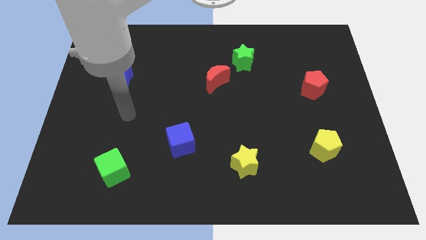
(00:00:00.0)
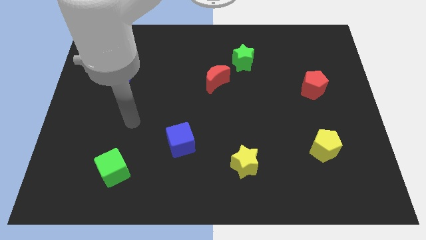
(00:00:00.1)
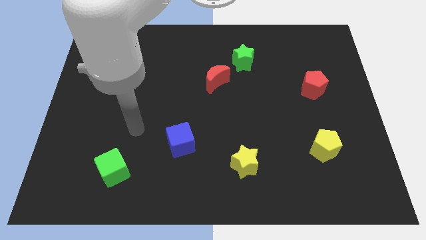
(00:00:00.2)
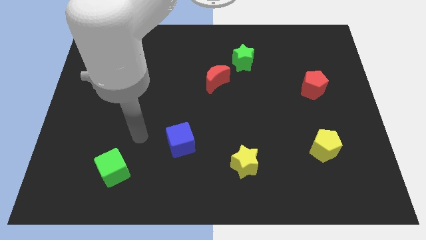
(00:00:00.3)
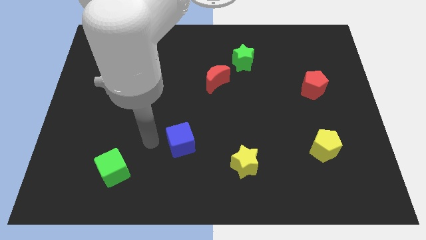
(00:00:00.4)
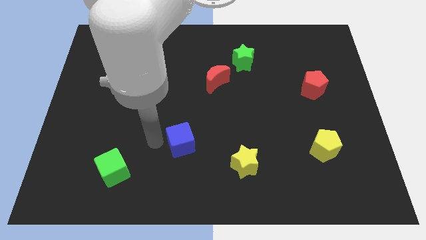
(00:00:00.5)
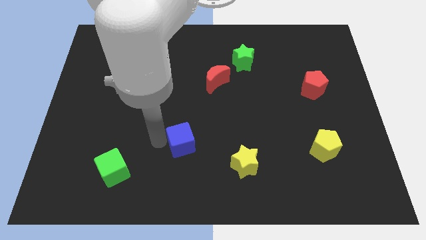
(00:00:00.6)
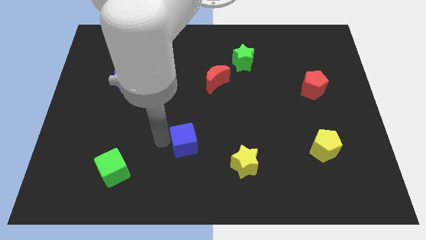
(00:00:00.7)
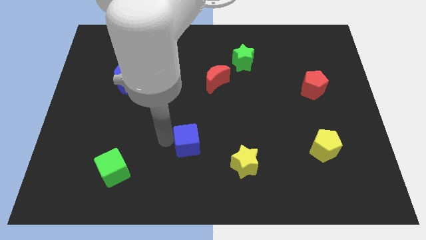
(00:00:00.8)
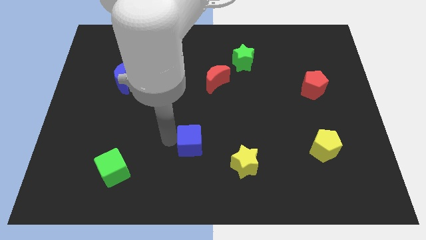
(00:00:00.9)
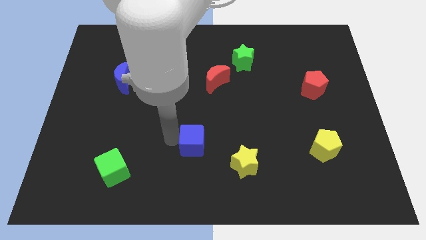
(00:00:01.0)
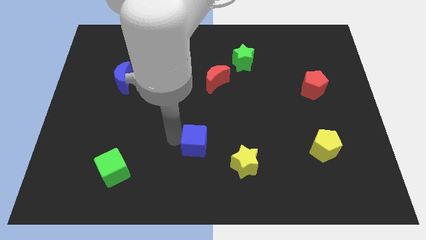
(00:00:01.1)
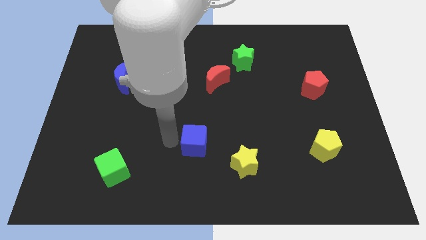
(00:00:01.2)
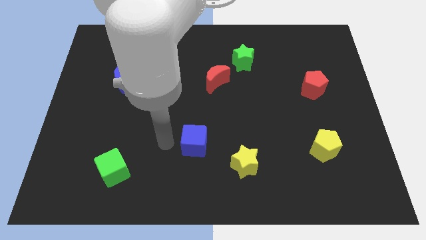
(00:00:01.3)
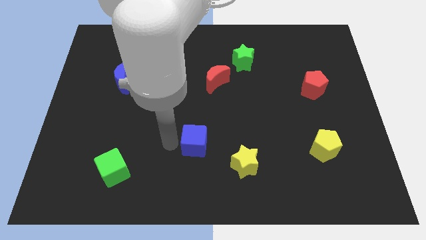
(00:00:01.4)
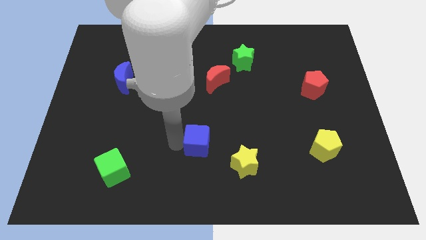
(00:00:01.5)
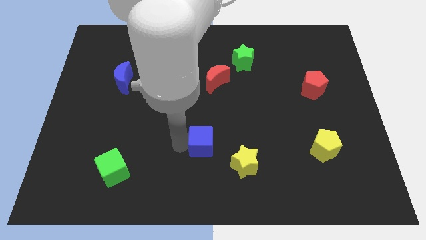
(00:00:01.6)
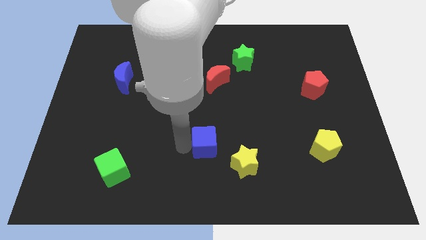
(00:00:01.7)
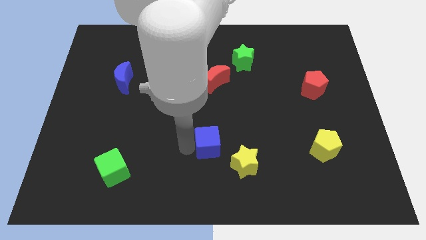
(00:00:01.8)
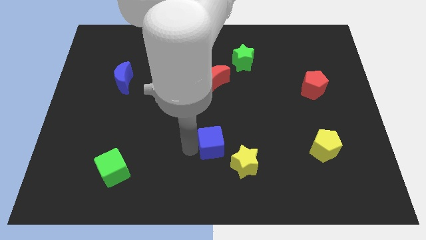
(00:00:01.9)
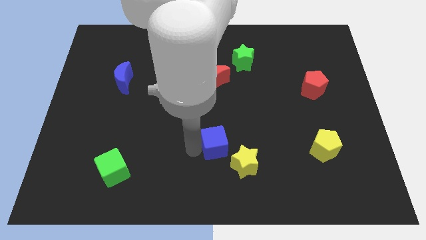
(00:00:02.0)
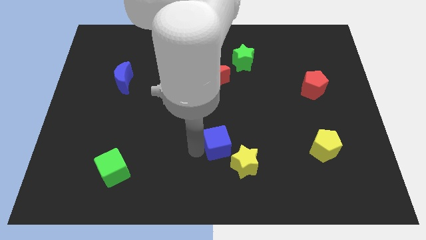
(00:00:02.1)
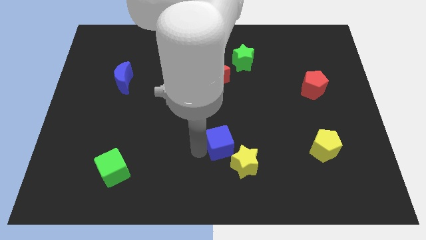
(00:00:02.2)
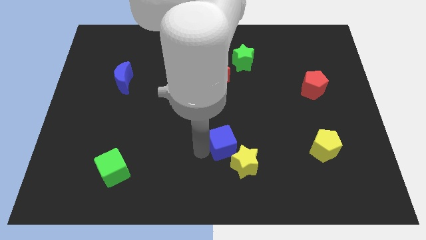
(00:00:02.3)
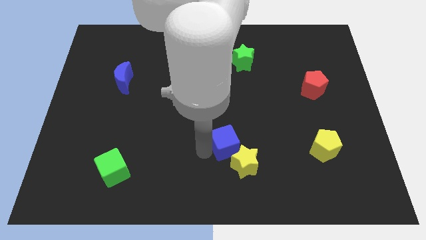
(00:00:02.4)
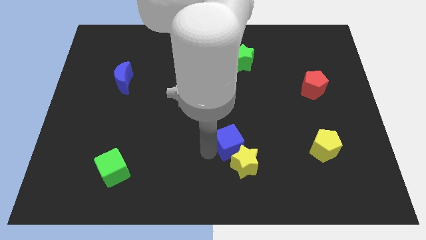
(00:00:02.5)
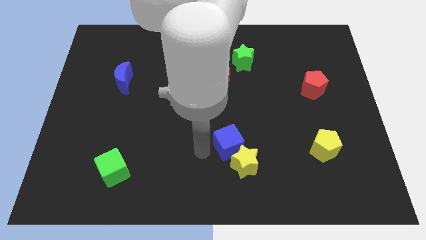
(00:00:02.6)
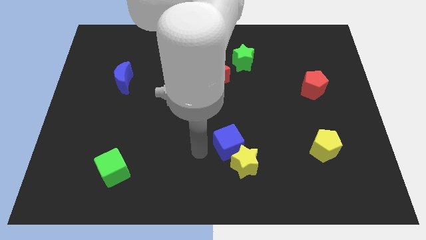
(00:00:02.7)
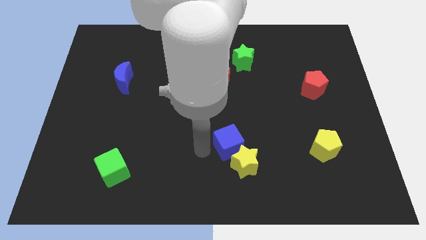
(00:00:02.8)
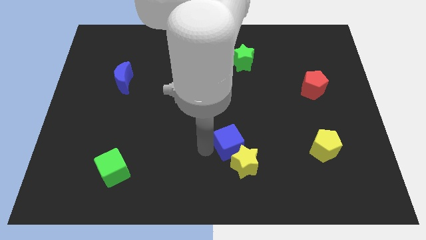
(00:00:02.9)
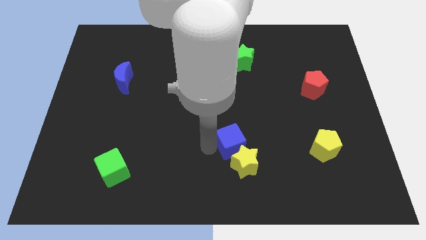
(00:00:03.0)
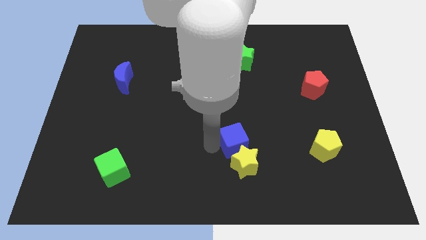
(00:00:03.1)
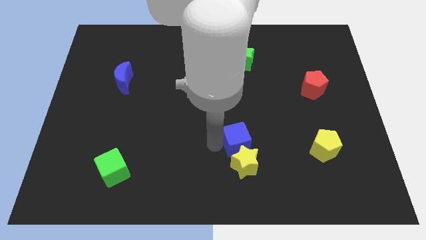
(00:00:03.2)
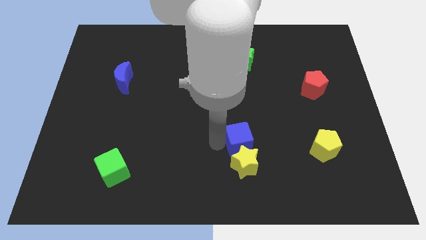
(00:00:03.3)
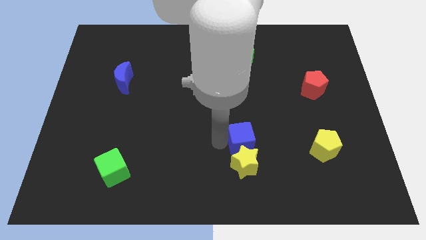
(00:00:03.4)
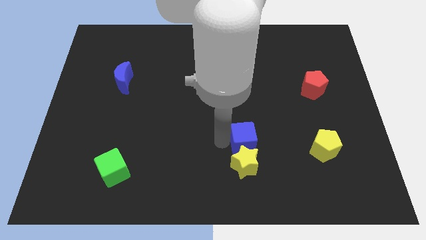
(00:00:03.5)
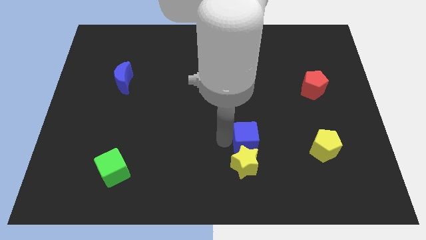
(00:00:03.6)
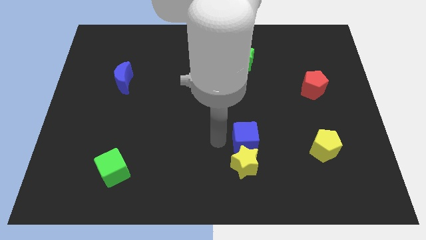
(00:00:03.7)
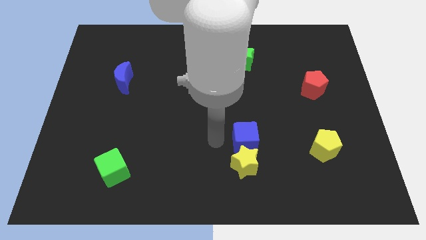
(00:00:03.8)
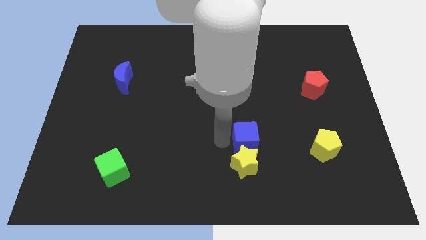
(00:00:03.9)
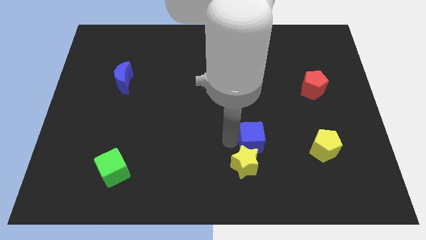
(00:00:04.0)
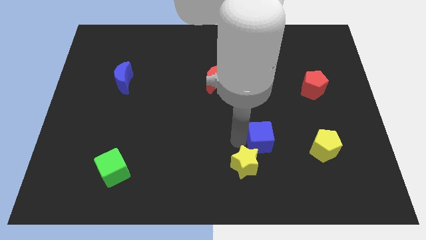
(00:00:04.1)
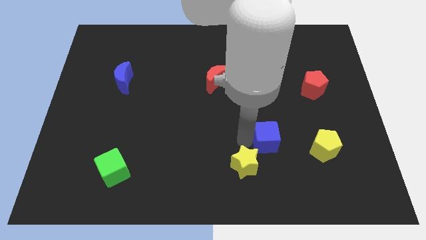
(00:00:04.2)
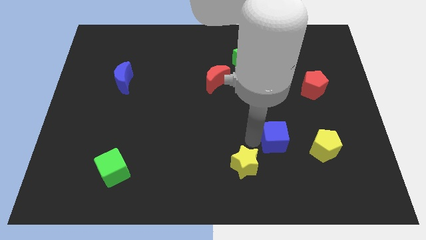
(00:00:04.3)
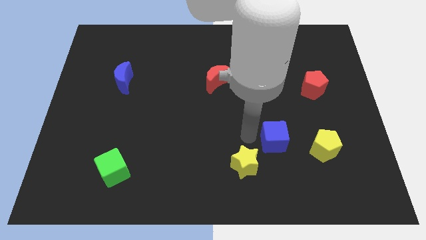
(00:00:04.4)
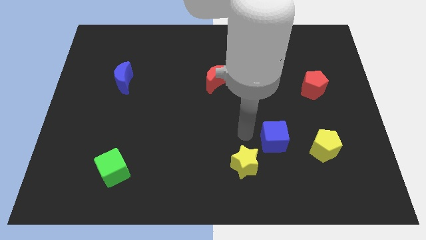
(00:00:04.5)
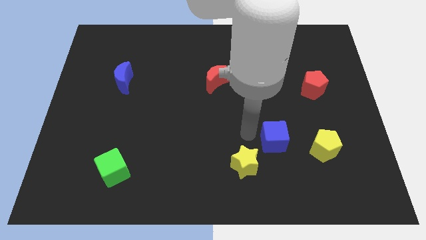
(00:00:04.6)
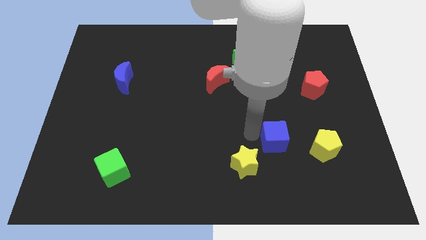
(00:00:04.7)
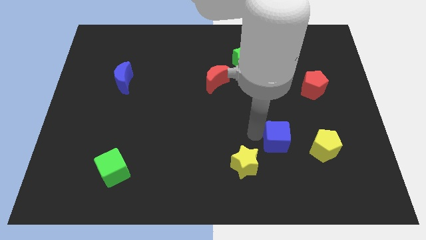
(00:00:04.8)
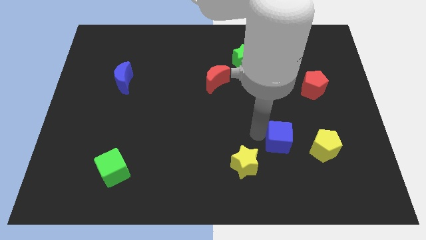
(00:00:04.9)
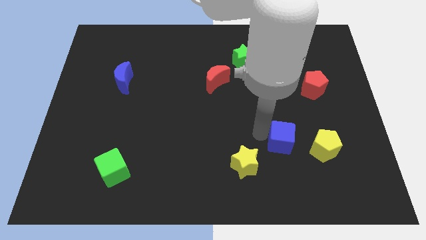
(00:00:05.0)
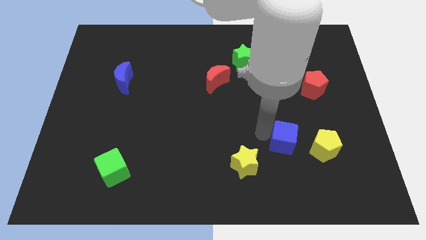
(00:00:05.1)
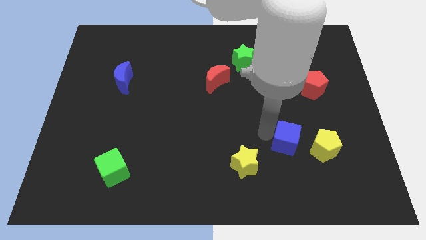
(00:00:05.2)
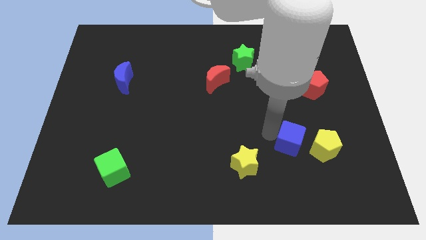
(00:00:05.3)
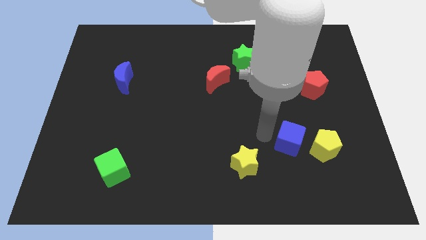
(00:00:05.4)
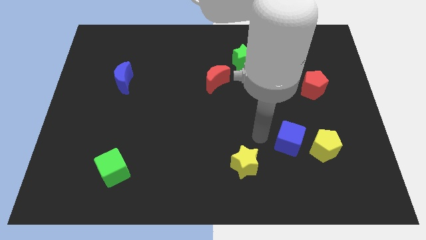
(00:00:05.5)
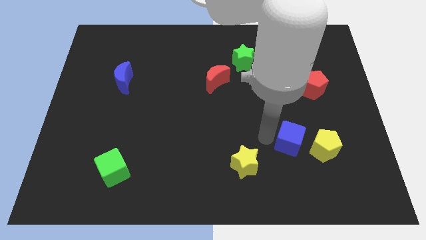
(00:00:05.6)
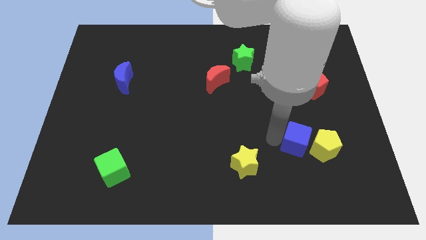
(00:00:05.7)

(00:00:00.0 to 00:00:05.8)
move the blue cube to the yellow pentagon

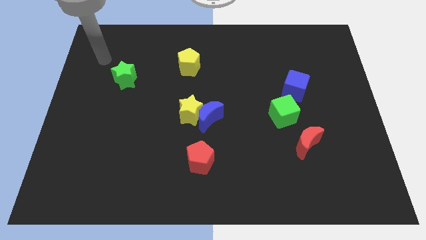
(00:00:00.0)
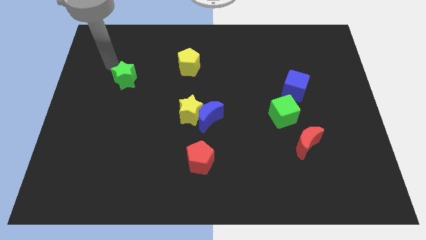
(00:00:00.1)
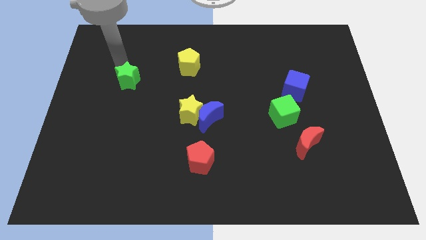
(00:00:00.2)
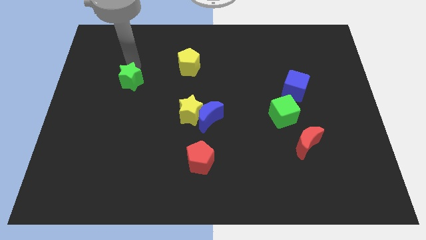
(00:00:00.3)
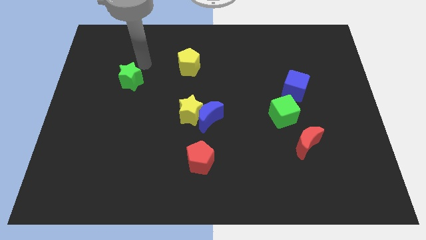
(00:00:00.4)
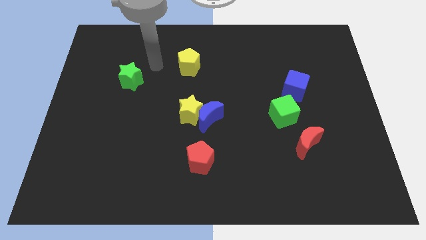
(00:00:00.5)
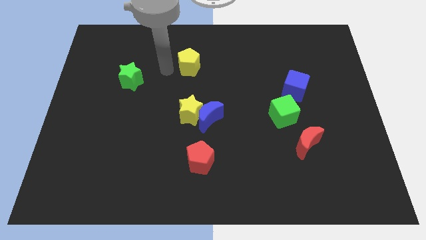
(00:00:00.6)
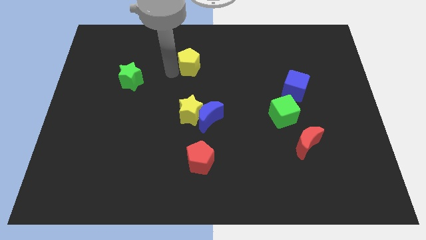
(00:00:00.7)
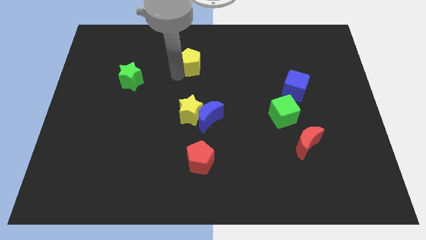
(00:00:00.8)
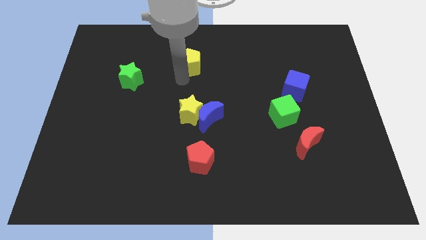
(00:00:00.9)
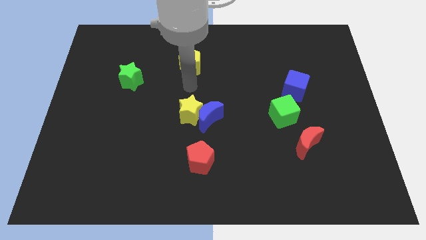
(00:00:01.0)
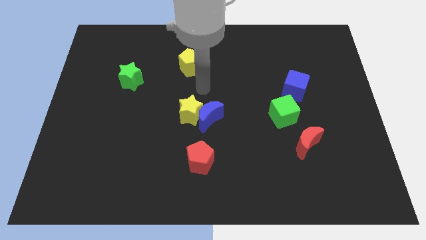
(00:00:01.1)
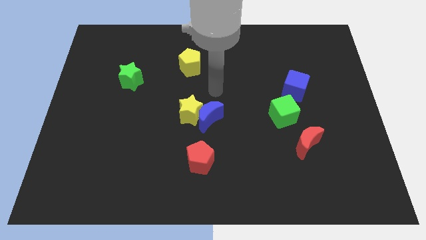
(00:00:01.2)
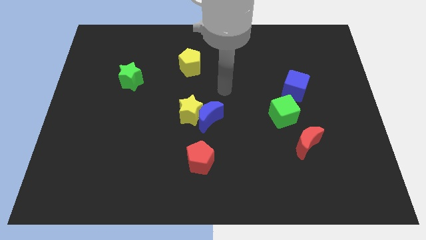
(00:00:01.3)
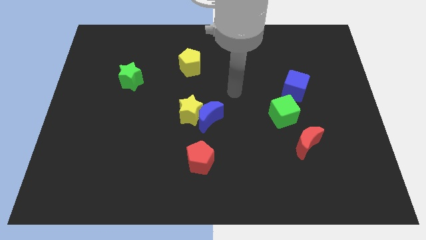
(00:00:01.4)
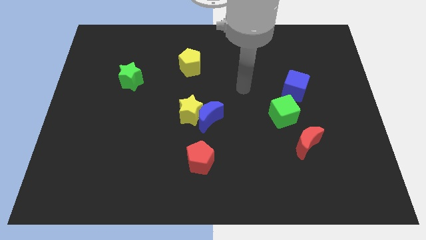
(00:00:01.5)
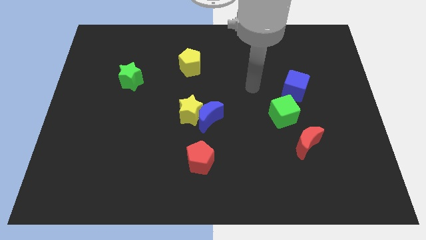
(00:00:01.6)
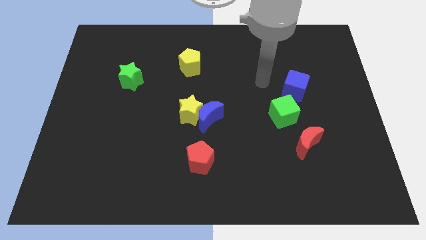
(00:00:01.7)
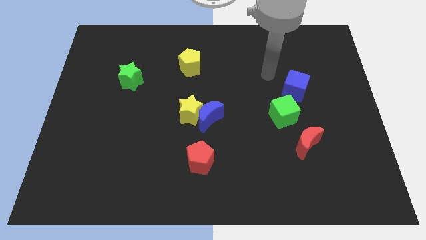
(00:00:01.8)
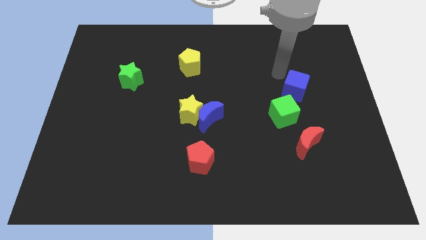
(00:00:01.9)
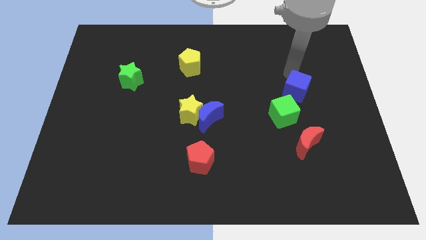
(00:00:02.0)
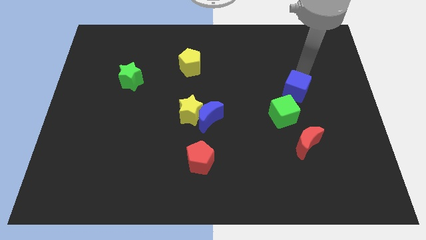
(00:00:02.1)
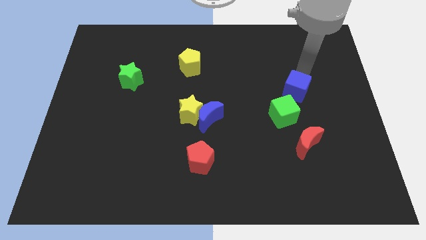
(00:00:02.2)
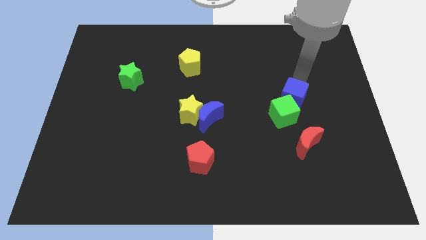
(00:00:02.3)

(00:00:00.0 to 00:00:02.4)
slide the blue cube close to the green cube
